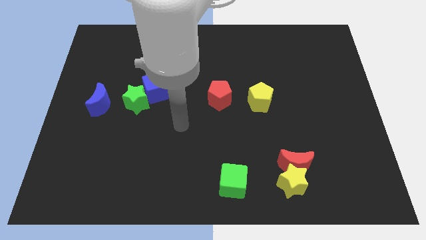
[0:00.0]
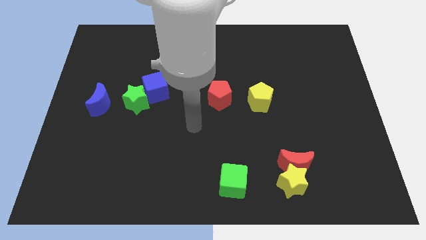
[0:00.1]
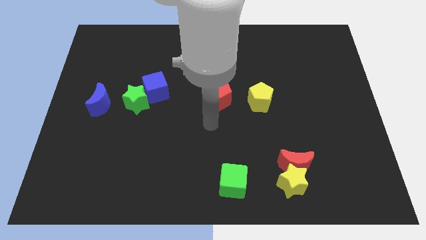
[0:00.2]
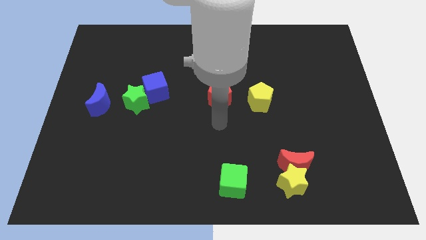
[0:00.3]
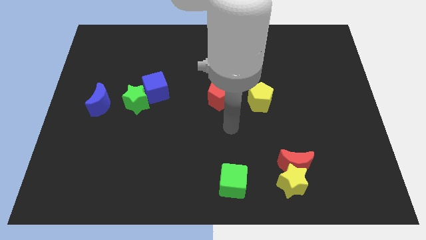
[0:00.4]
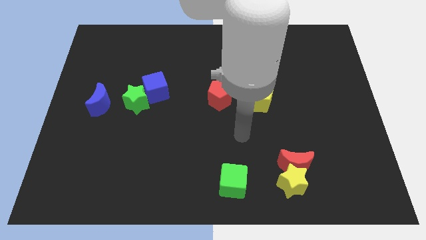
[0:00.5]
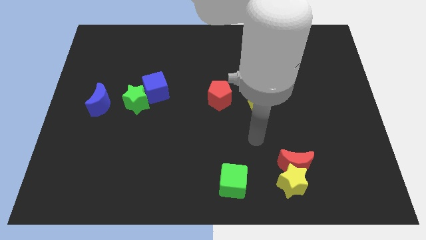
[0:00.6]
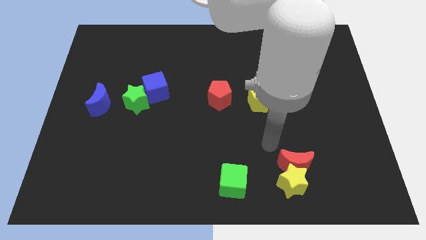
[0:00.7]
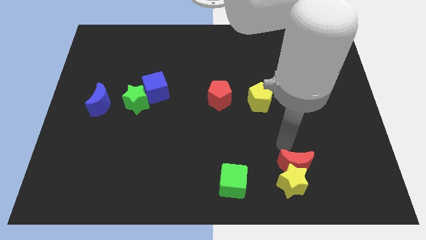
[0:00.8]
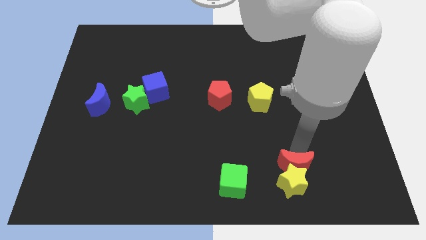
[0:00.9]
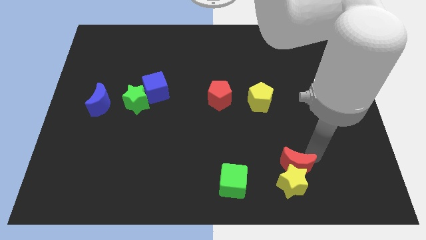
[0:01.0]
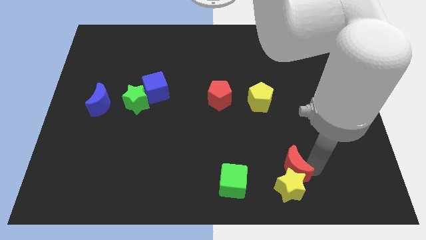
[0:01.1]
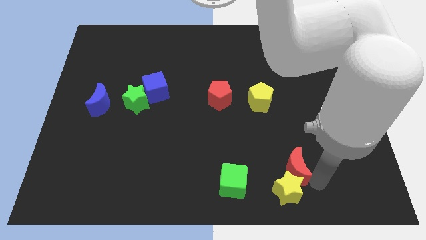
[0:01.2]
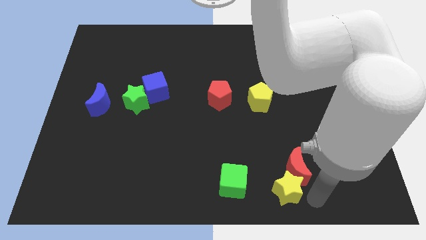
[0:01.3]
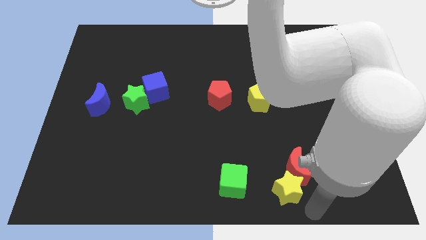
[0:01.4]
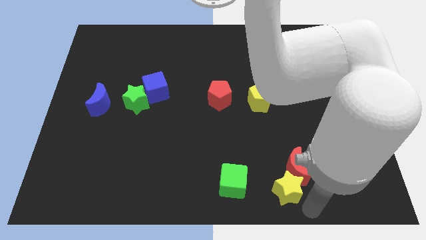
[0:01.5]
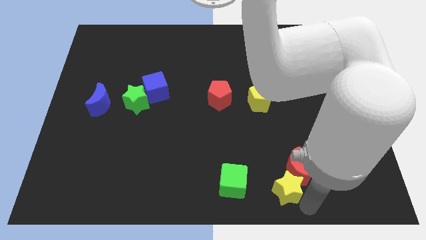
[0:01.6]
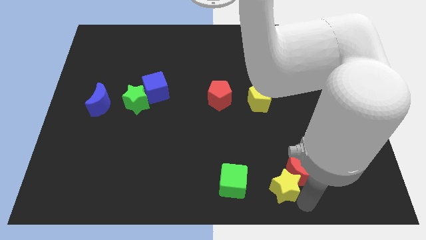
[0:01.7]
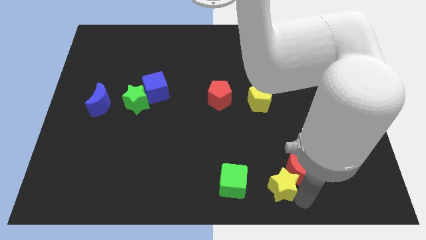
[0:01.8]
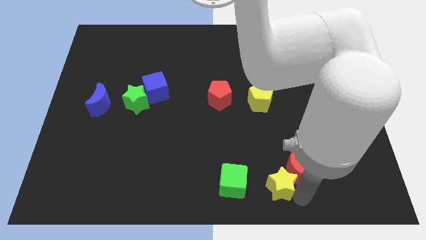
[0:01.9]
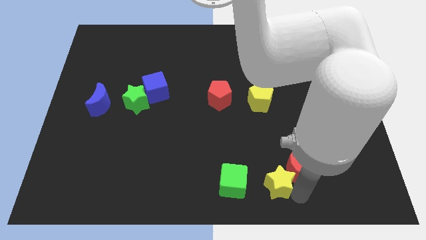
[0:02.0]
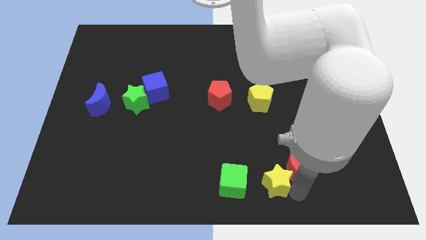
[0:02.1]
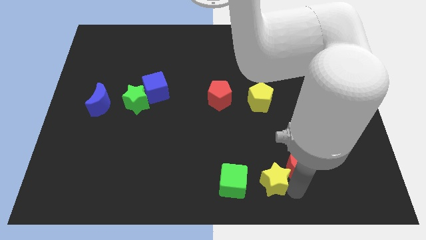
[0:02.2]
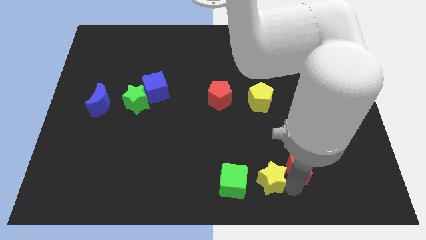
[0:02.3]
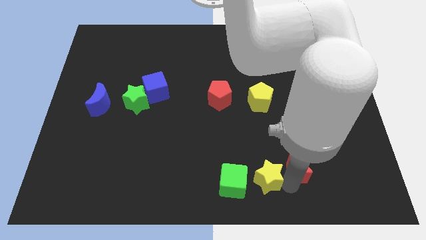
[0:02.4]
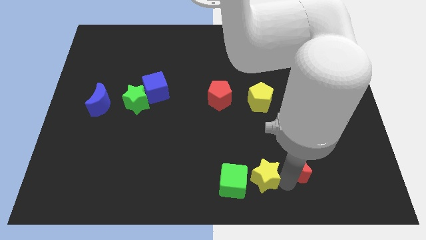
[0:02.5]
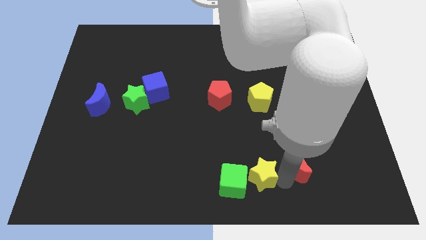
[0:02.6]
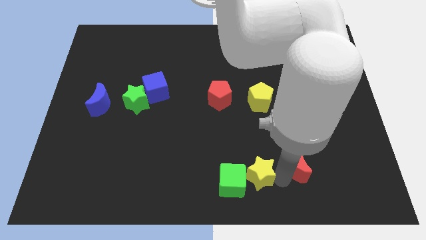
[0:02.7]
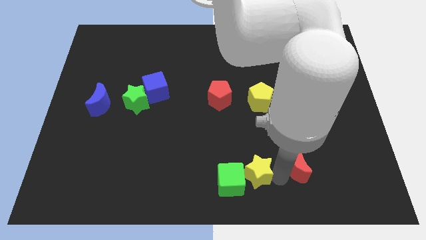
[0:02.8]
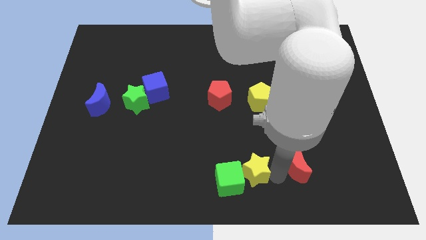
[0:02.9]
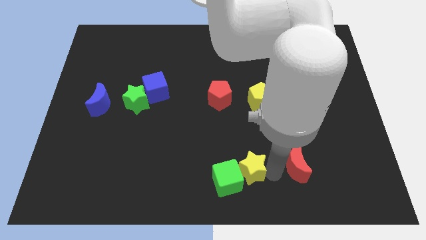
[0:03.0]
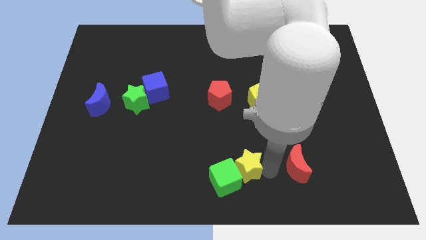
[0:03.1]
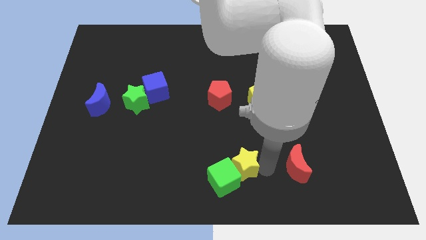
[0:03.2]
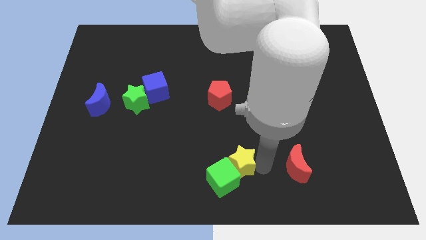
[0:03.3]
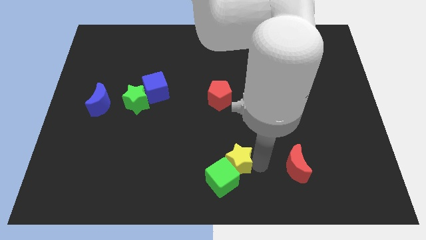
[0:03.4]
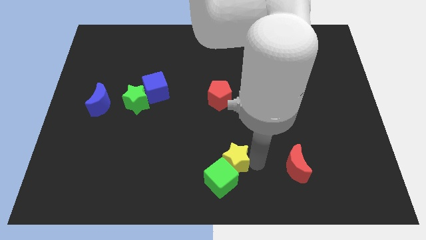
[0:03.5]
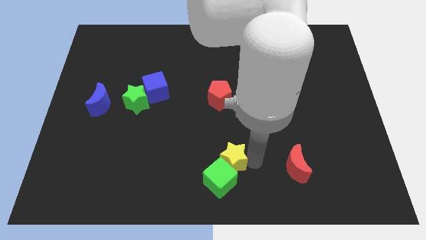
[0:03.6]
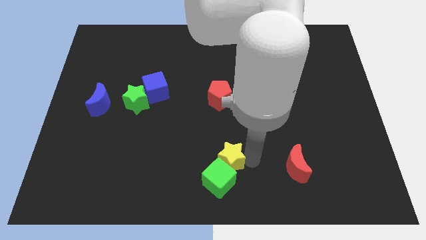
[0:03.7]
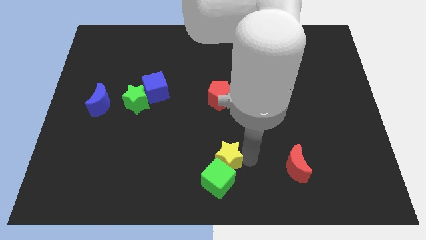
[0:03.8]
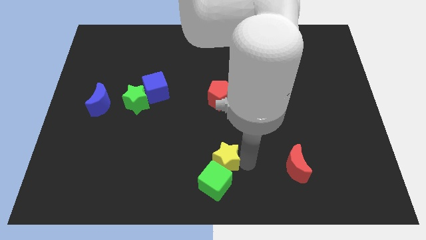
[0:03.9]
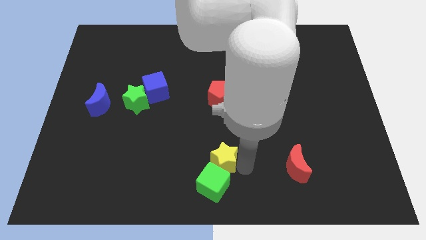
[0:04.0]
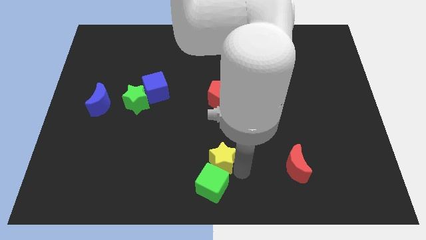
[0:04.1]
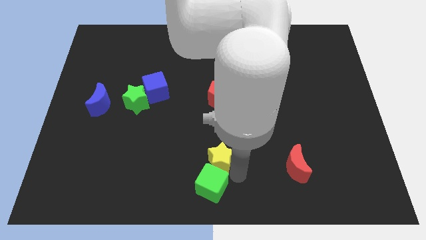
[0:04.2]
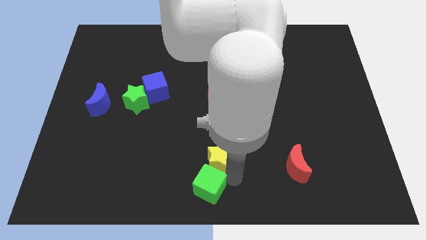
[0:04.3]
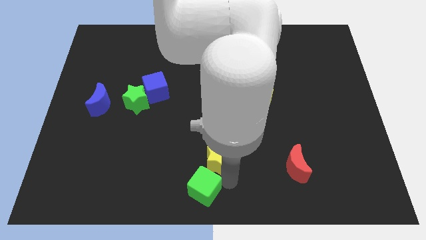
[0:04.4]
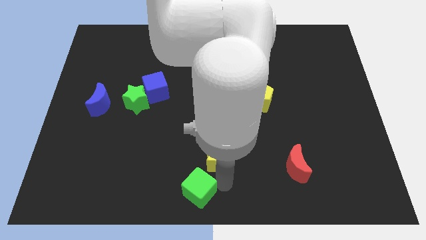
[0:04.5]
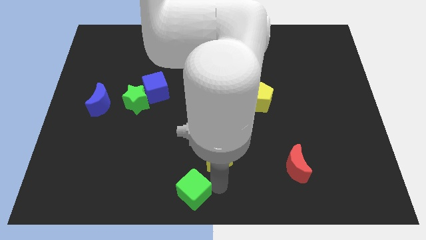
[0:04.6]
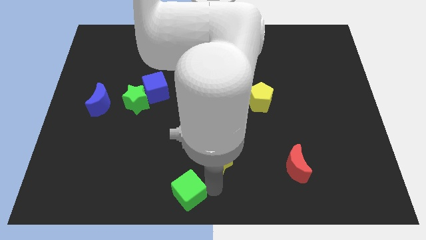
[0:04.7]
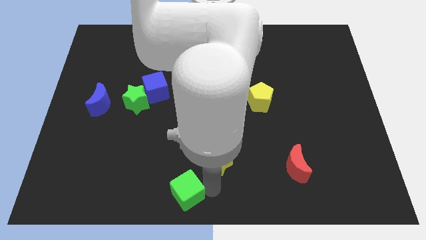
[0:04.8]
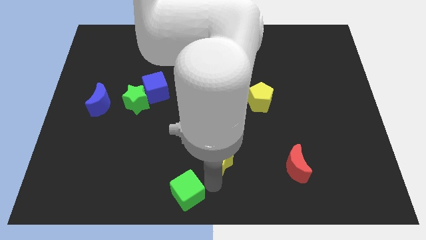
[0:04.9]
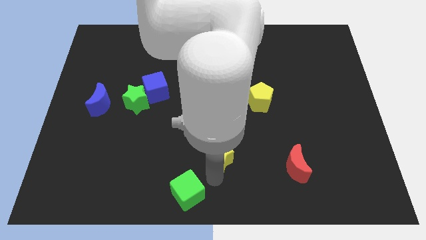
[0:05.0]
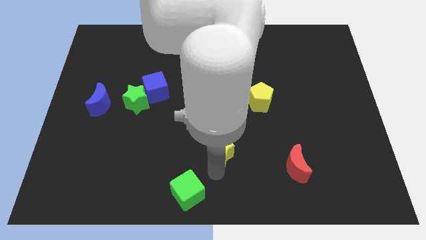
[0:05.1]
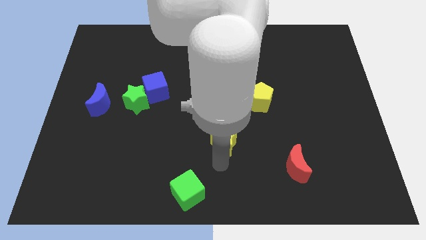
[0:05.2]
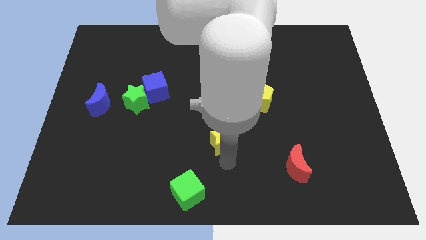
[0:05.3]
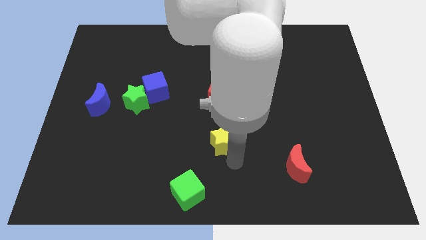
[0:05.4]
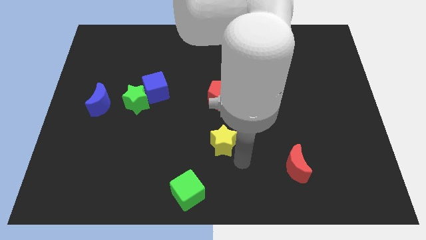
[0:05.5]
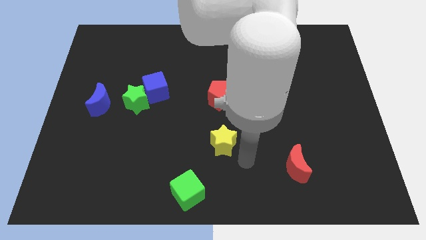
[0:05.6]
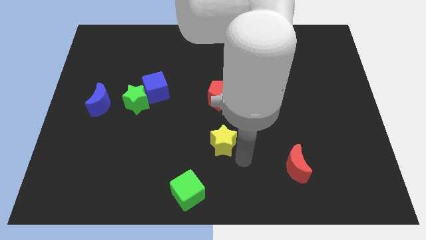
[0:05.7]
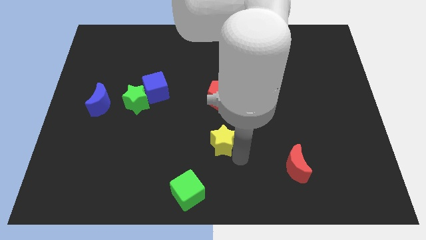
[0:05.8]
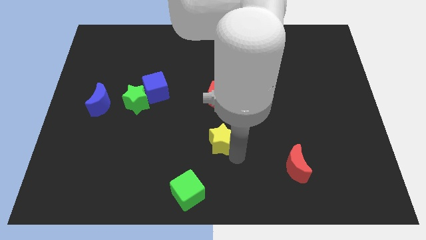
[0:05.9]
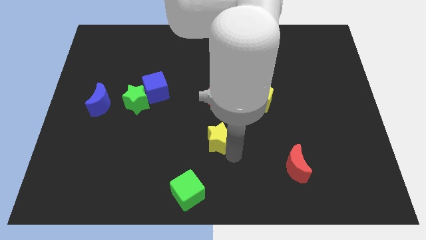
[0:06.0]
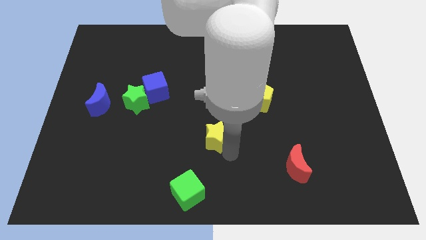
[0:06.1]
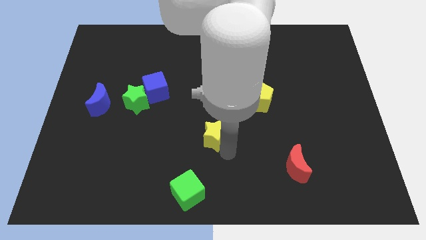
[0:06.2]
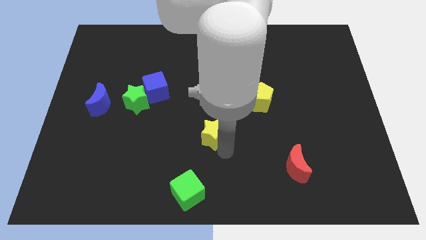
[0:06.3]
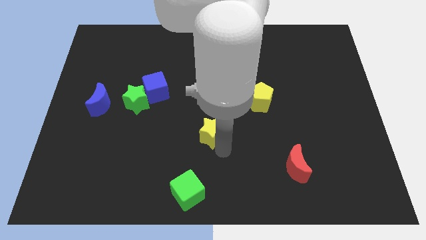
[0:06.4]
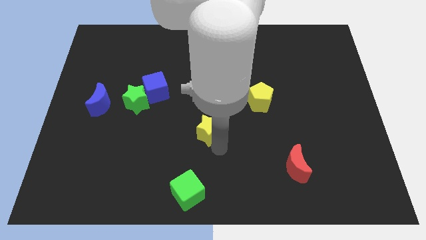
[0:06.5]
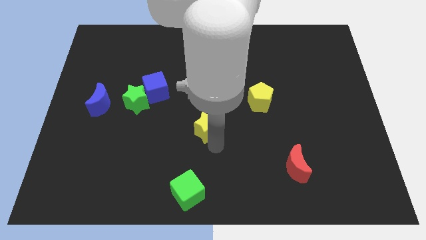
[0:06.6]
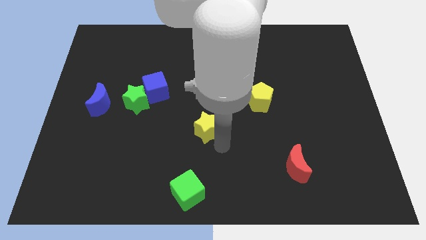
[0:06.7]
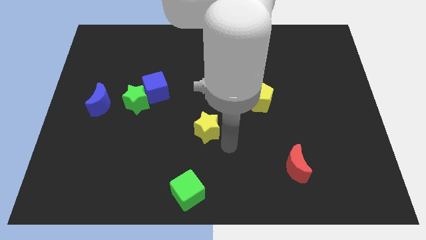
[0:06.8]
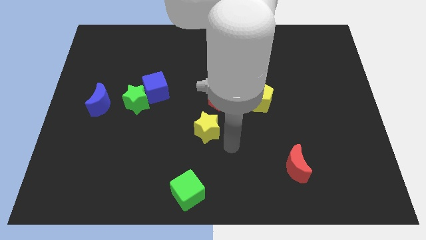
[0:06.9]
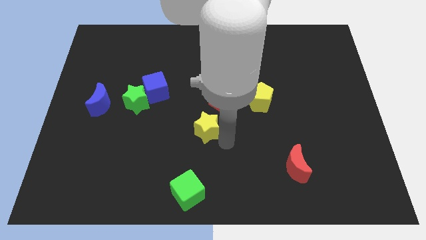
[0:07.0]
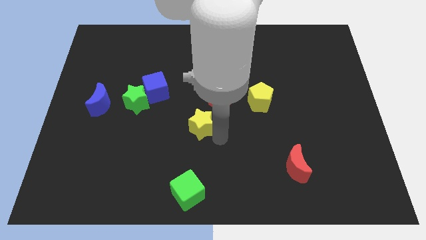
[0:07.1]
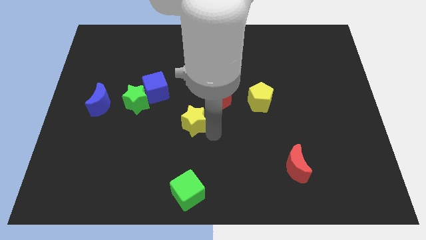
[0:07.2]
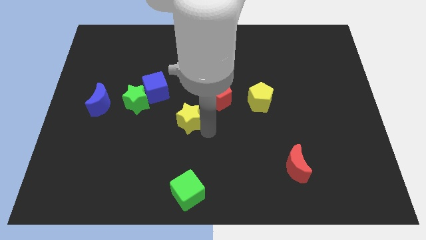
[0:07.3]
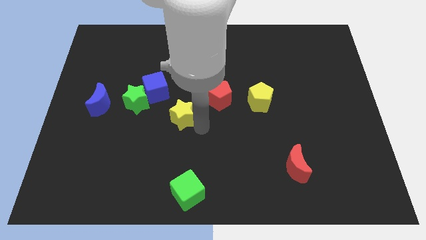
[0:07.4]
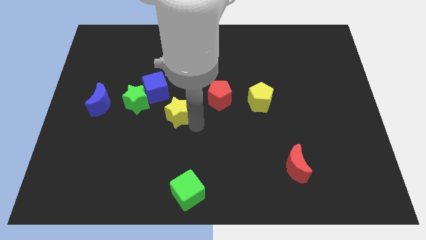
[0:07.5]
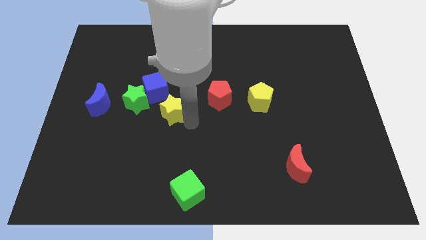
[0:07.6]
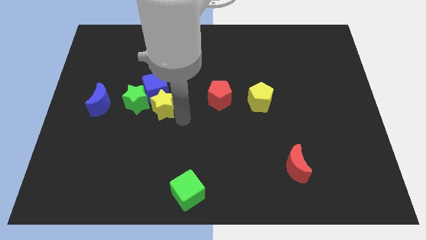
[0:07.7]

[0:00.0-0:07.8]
slide the yellow star towards the blue cube
